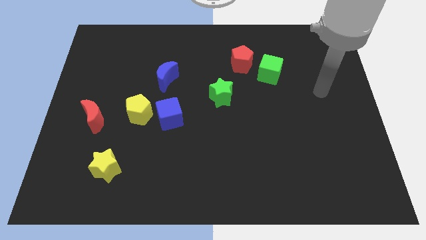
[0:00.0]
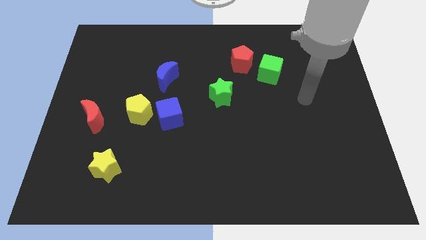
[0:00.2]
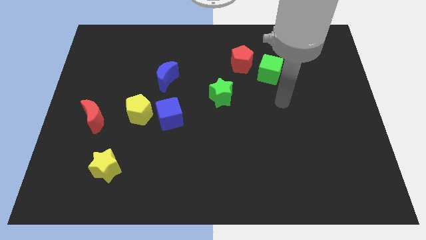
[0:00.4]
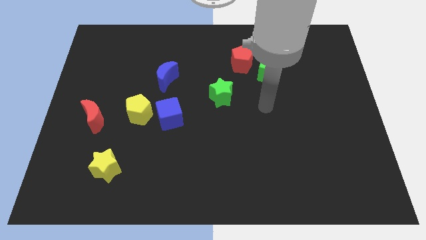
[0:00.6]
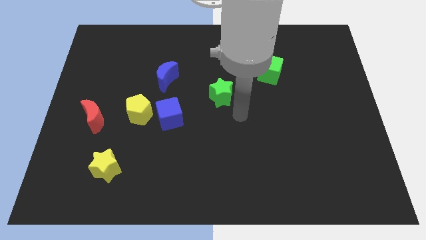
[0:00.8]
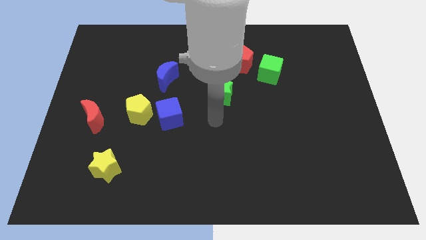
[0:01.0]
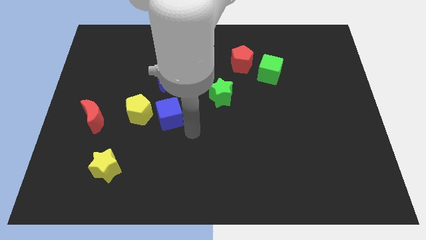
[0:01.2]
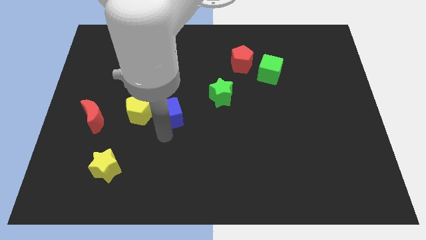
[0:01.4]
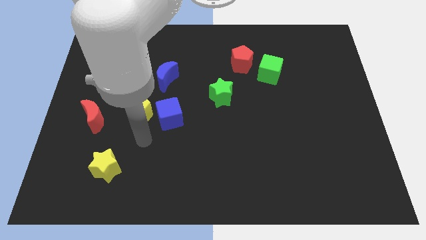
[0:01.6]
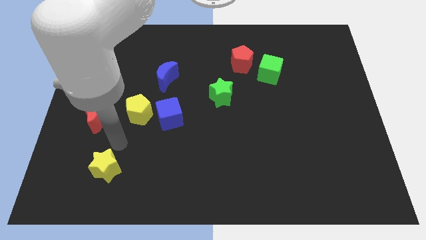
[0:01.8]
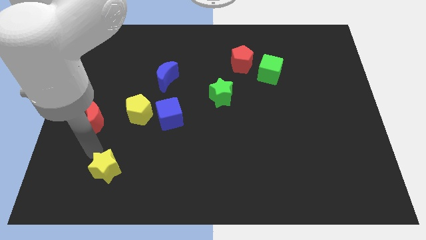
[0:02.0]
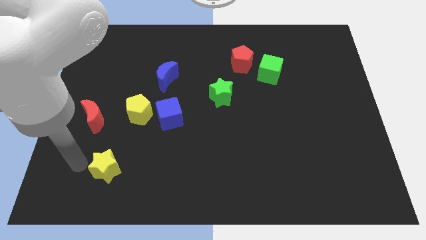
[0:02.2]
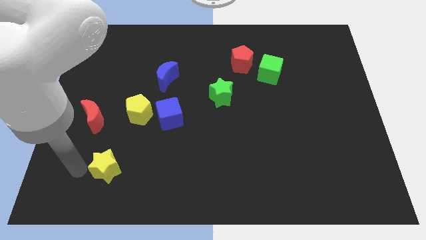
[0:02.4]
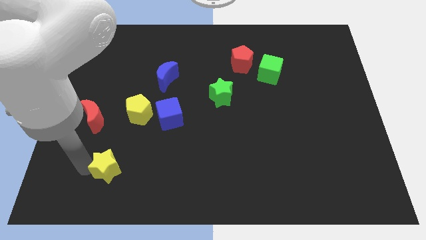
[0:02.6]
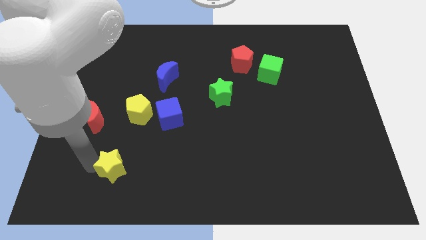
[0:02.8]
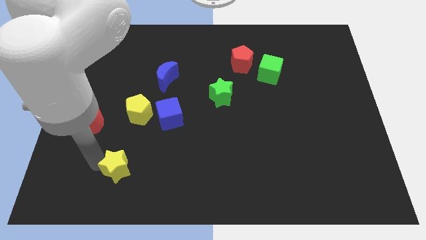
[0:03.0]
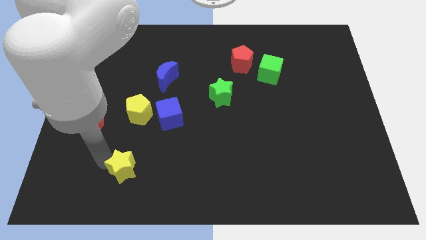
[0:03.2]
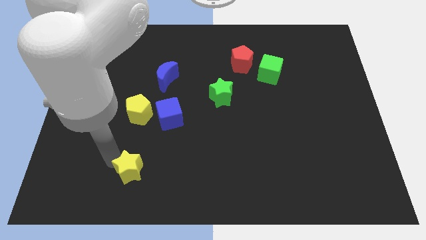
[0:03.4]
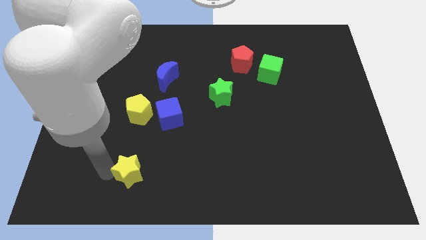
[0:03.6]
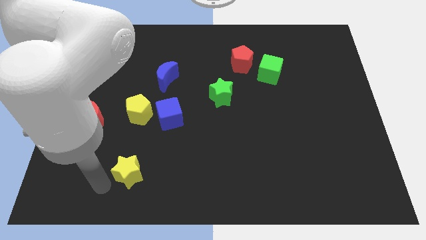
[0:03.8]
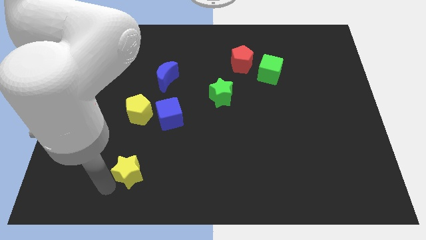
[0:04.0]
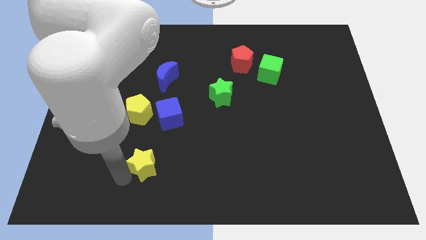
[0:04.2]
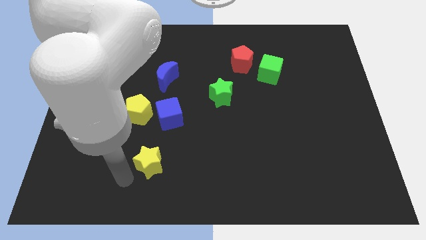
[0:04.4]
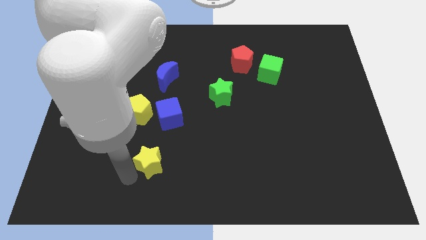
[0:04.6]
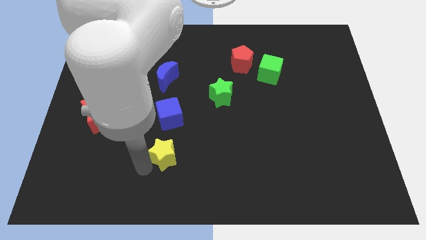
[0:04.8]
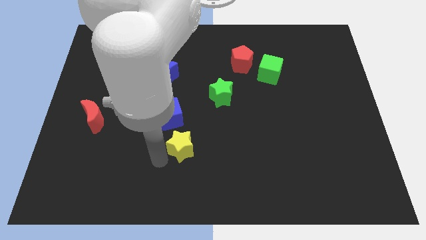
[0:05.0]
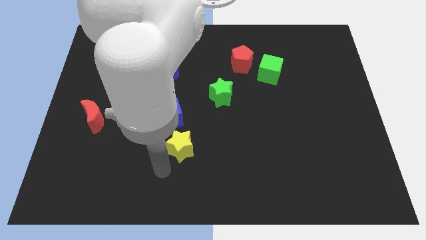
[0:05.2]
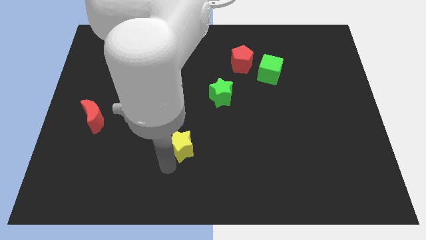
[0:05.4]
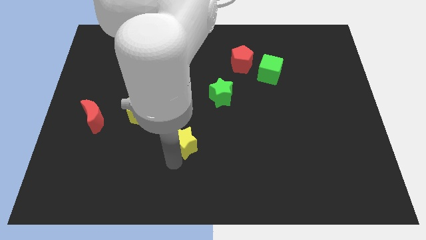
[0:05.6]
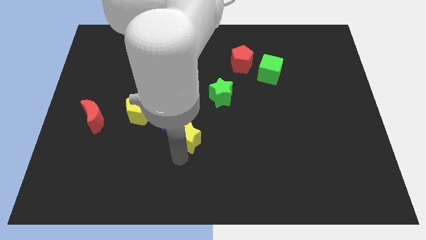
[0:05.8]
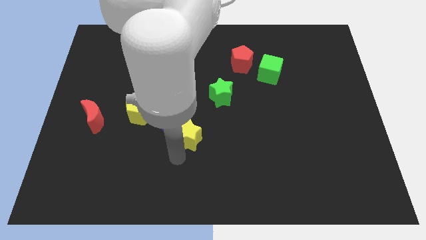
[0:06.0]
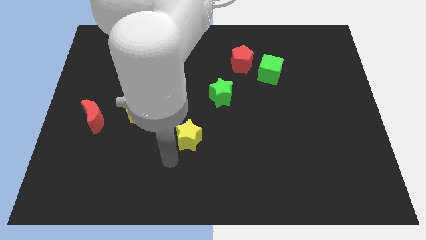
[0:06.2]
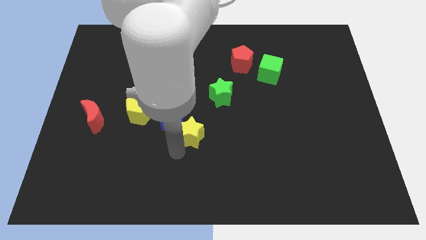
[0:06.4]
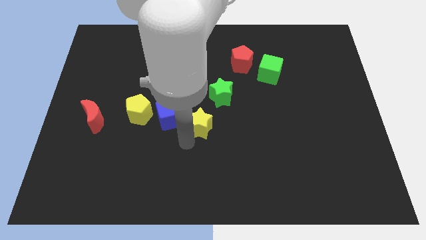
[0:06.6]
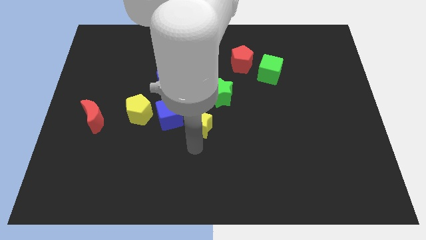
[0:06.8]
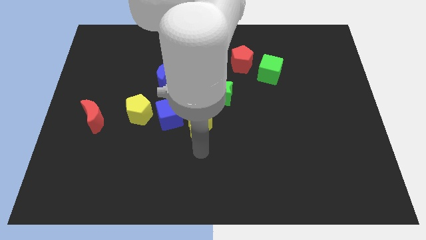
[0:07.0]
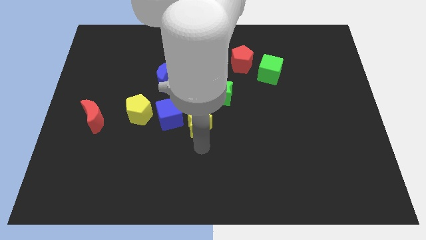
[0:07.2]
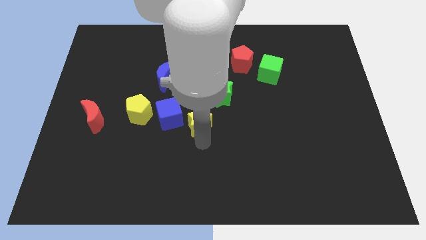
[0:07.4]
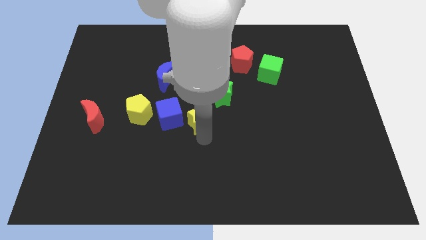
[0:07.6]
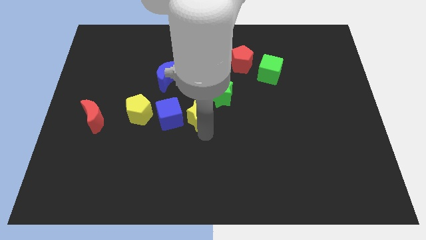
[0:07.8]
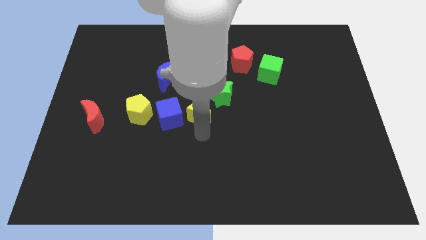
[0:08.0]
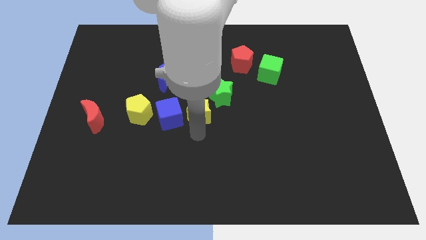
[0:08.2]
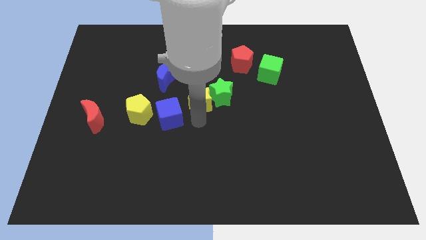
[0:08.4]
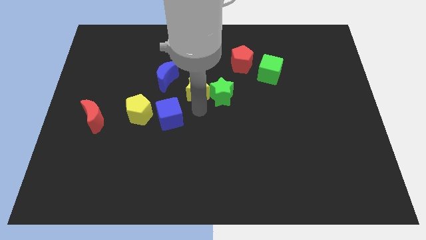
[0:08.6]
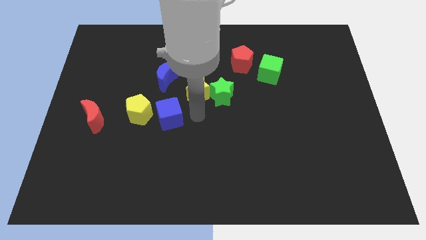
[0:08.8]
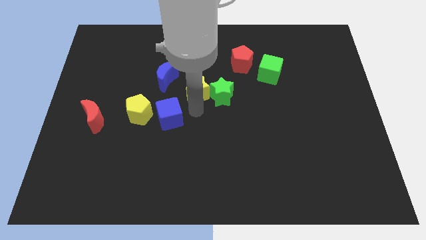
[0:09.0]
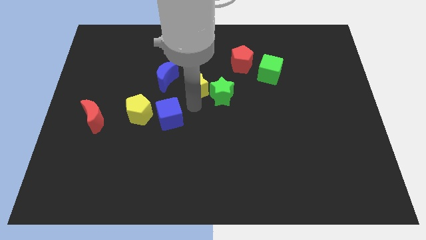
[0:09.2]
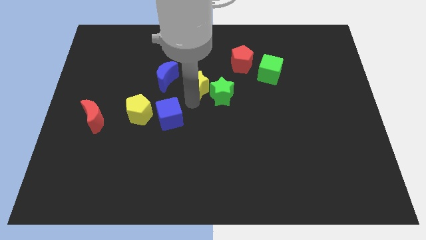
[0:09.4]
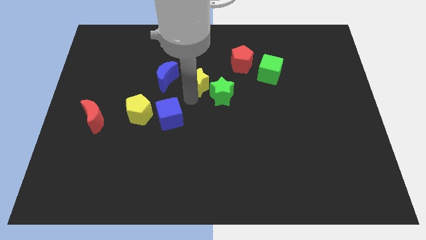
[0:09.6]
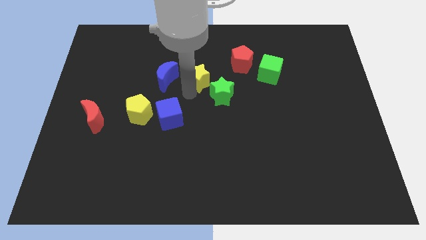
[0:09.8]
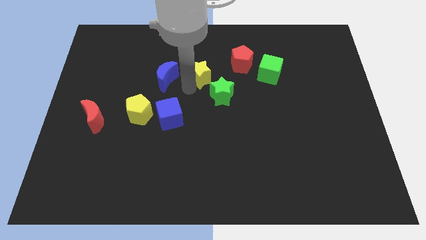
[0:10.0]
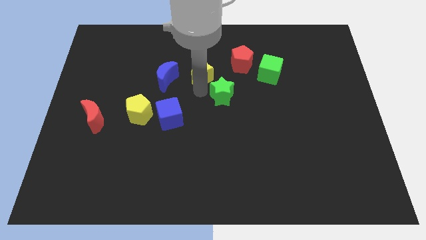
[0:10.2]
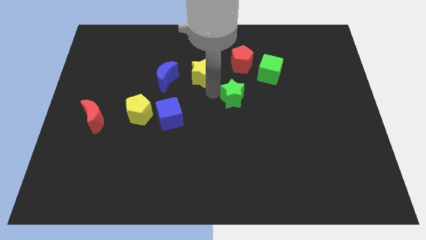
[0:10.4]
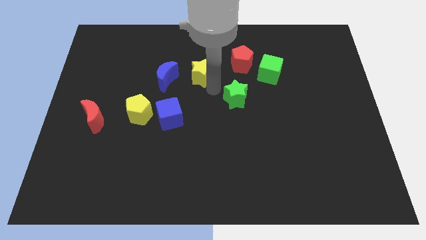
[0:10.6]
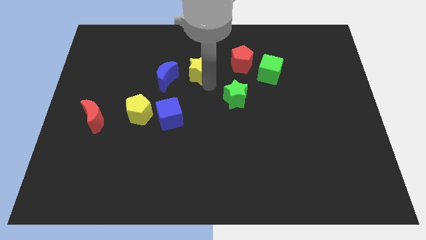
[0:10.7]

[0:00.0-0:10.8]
put the yellow star to the top right of the blue moon

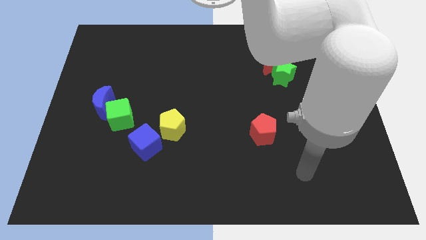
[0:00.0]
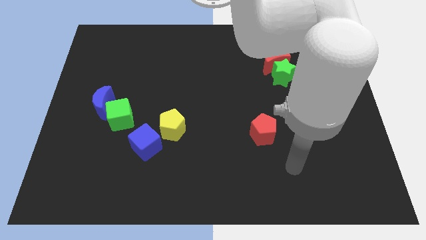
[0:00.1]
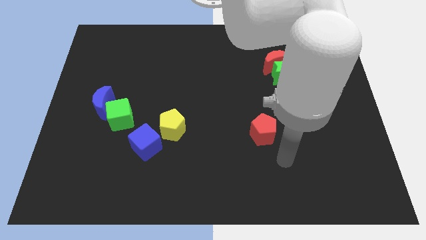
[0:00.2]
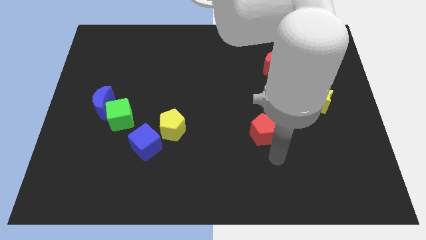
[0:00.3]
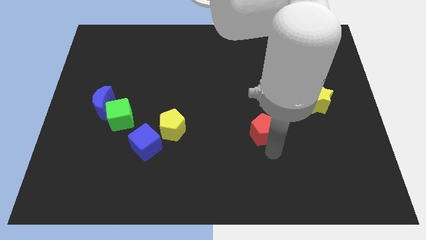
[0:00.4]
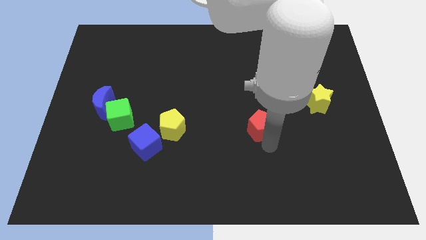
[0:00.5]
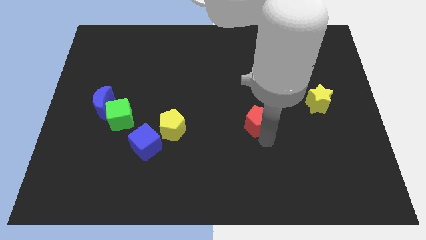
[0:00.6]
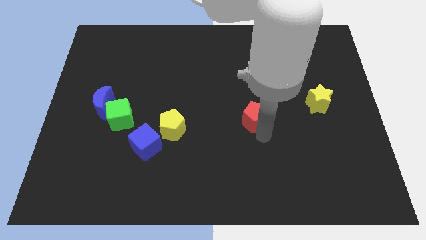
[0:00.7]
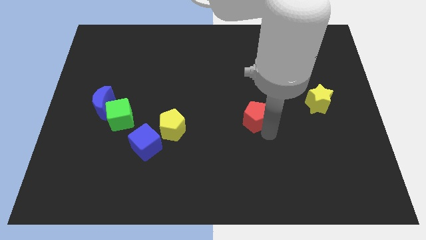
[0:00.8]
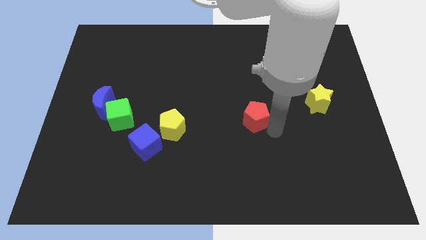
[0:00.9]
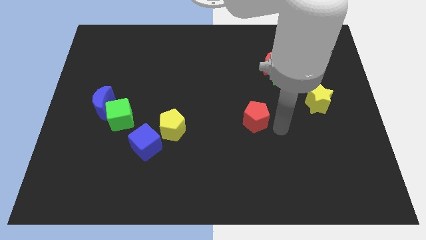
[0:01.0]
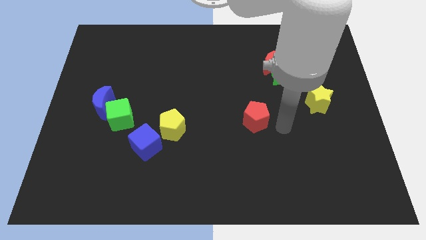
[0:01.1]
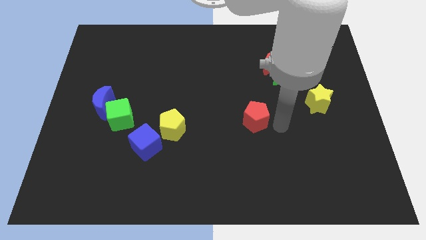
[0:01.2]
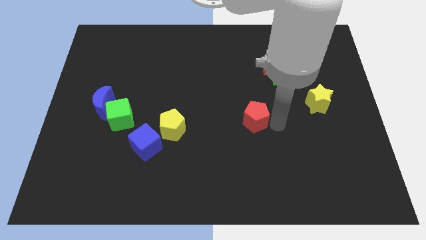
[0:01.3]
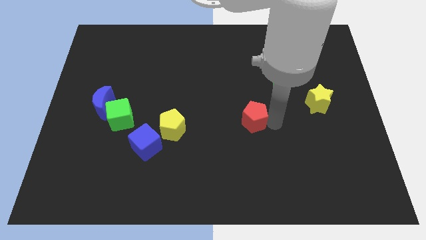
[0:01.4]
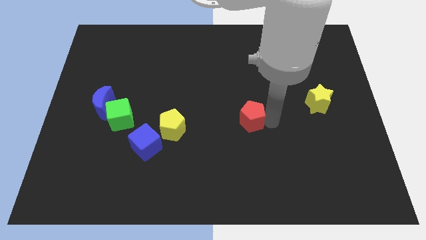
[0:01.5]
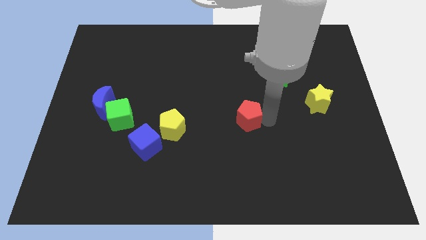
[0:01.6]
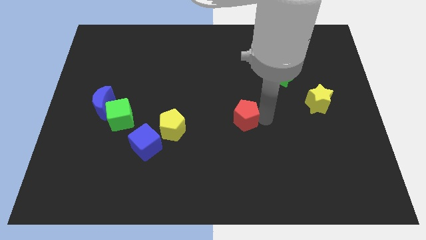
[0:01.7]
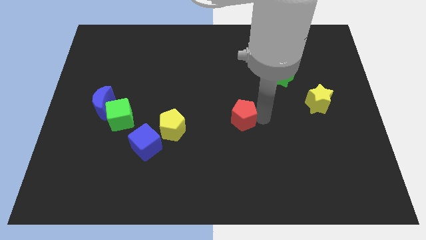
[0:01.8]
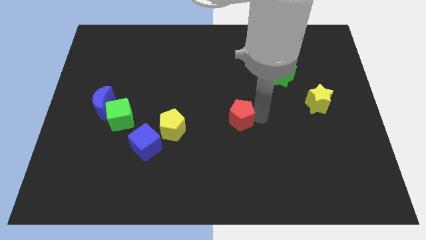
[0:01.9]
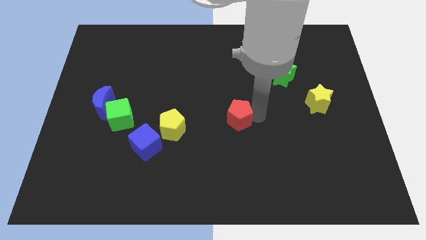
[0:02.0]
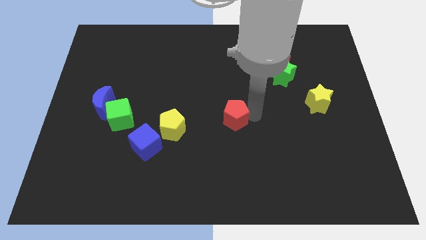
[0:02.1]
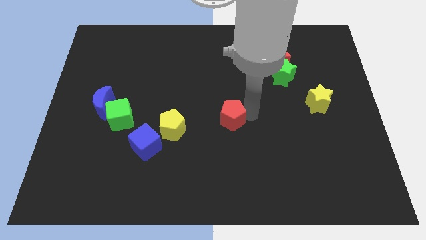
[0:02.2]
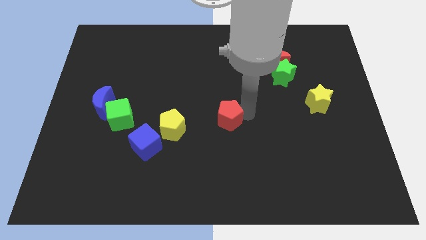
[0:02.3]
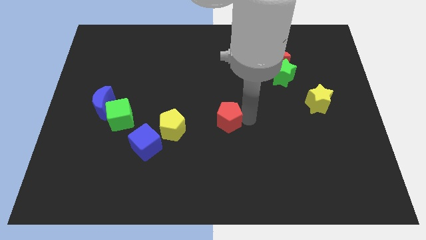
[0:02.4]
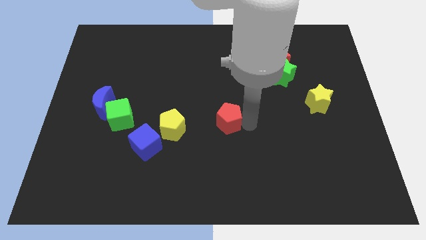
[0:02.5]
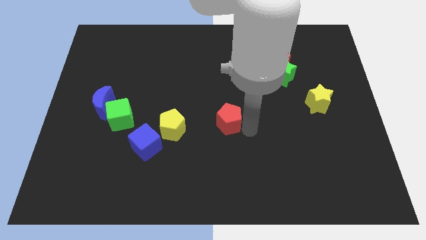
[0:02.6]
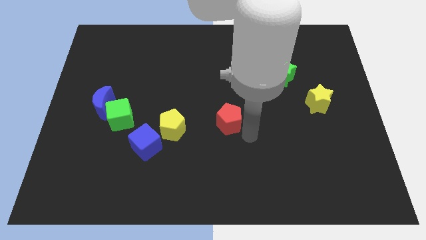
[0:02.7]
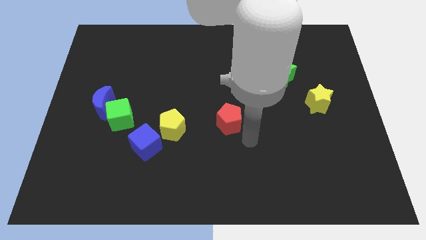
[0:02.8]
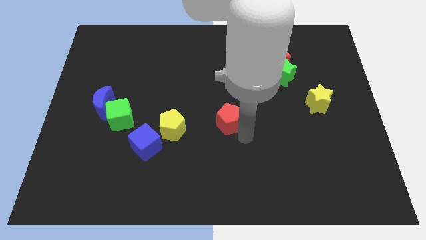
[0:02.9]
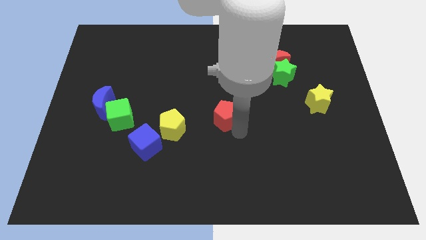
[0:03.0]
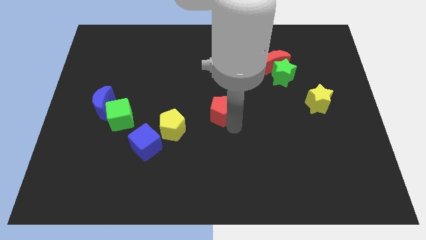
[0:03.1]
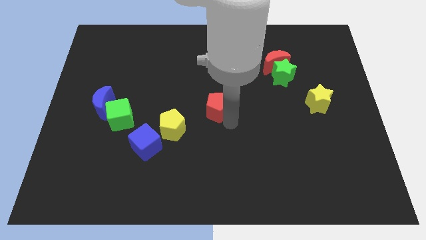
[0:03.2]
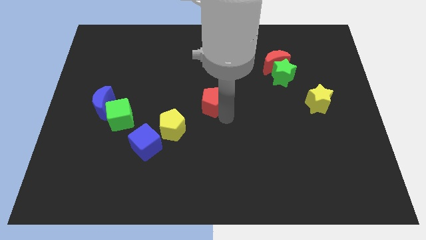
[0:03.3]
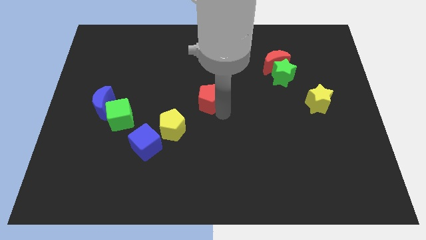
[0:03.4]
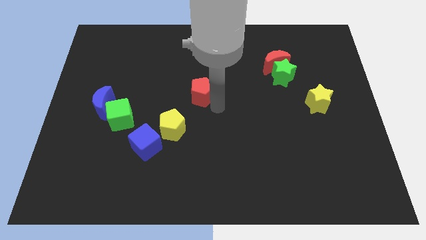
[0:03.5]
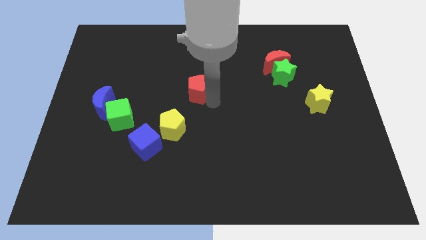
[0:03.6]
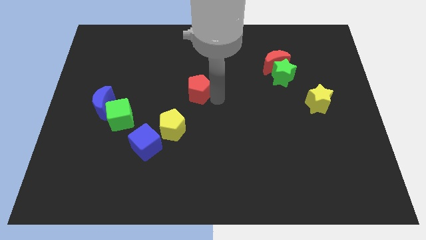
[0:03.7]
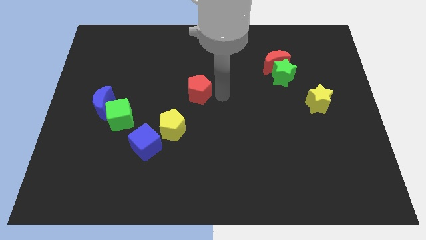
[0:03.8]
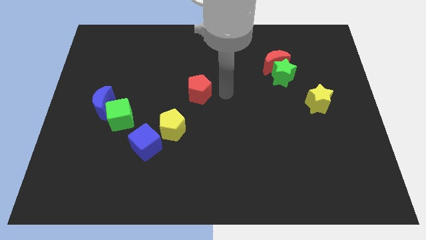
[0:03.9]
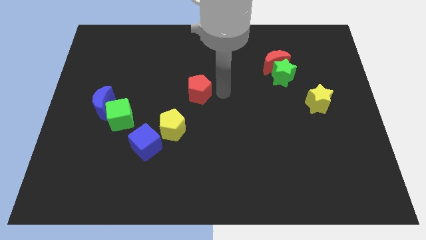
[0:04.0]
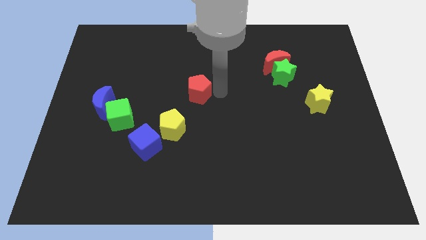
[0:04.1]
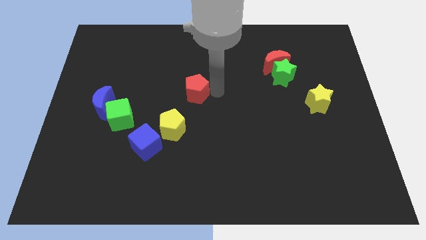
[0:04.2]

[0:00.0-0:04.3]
move the red pentagon to the top side of the yellow pentagon
